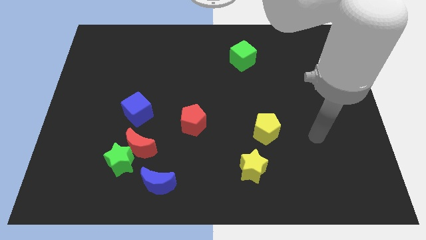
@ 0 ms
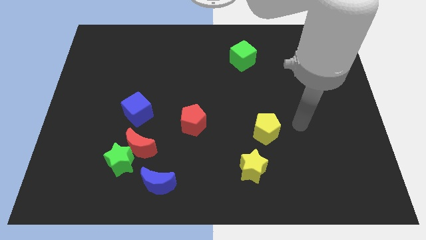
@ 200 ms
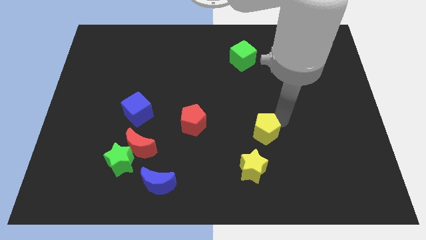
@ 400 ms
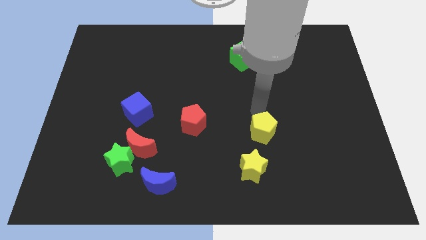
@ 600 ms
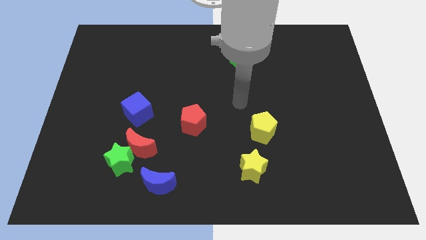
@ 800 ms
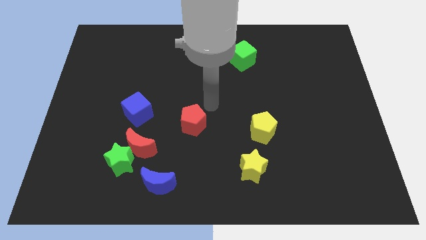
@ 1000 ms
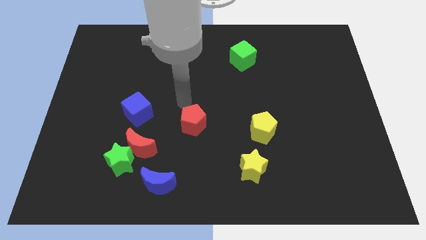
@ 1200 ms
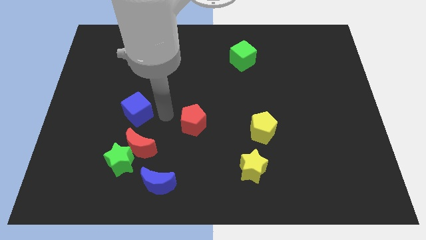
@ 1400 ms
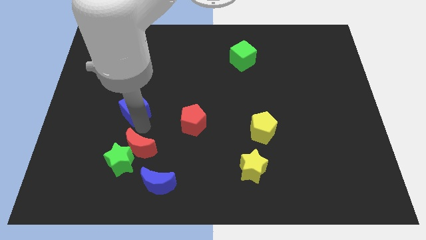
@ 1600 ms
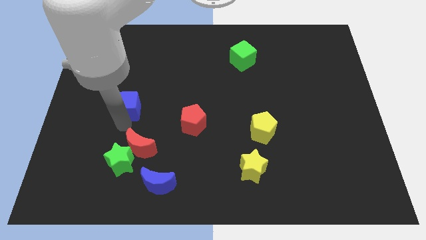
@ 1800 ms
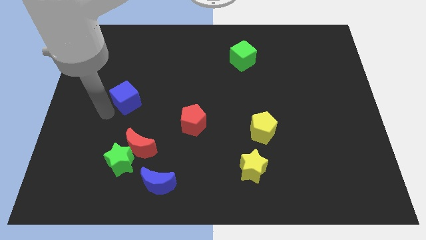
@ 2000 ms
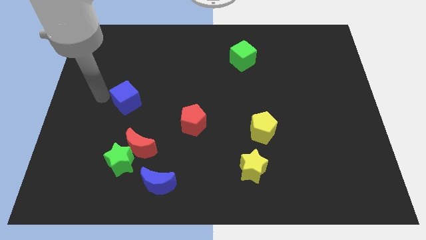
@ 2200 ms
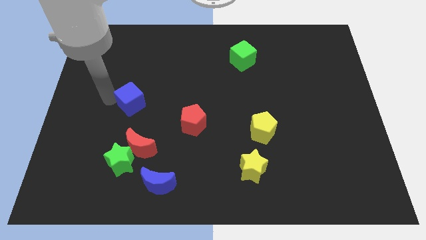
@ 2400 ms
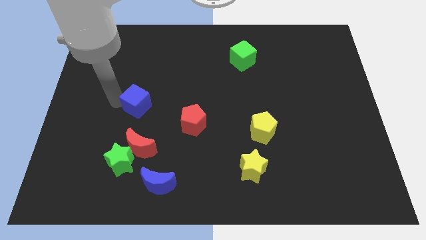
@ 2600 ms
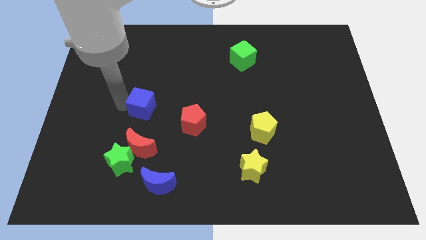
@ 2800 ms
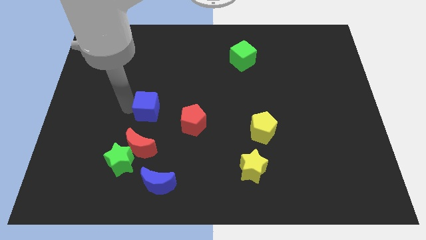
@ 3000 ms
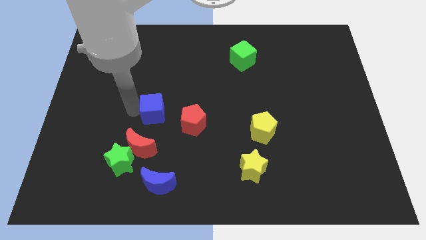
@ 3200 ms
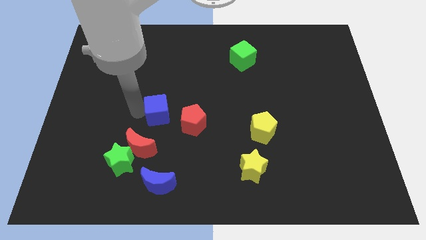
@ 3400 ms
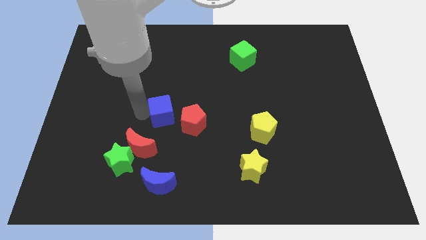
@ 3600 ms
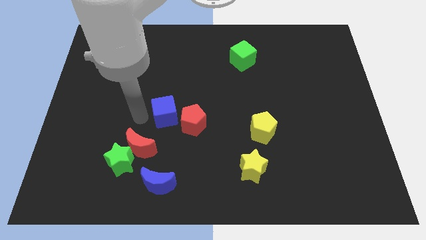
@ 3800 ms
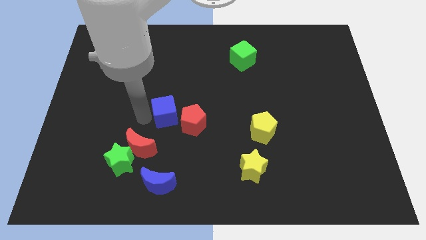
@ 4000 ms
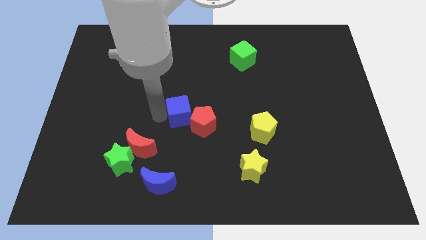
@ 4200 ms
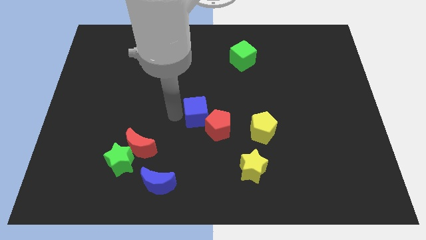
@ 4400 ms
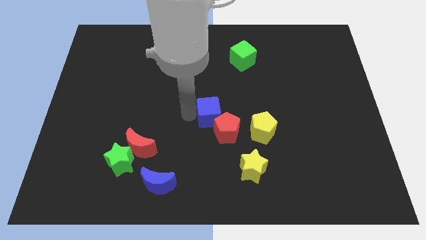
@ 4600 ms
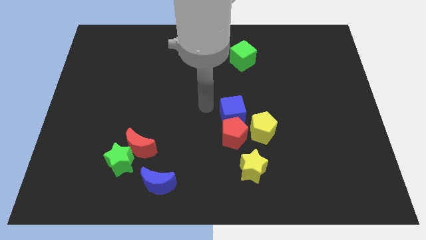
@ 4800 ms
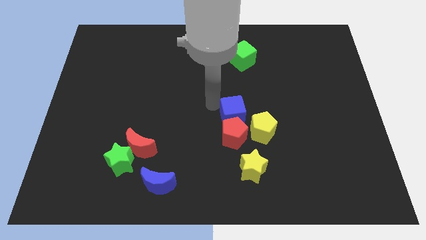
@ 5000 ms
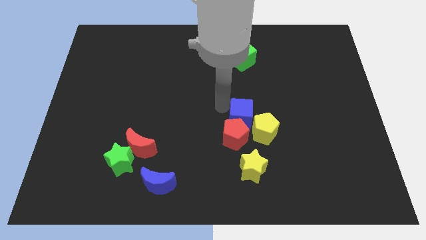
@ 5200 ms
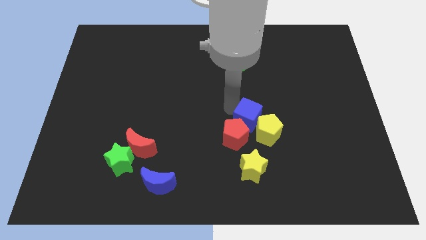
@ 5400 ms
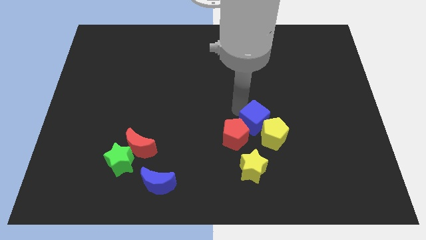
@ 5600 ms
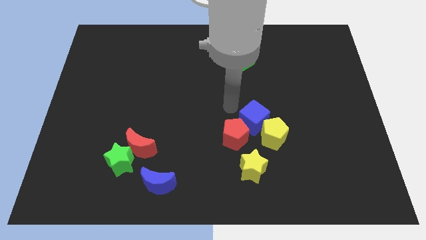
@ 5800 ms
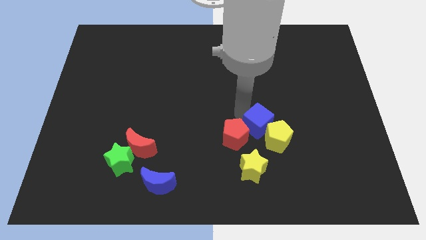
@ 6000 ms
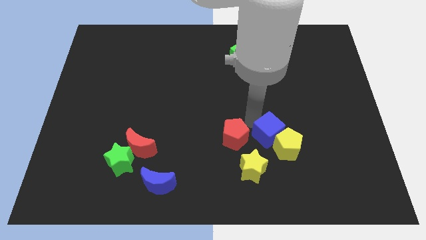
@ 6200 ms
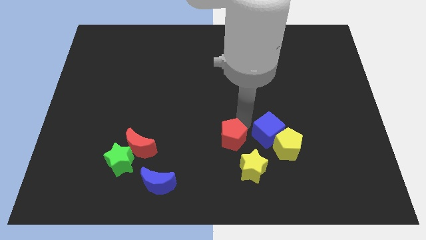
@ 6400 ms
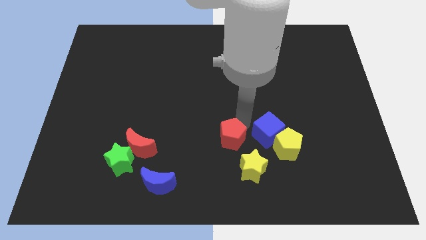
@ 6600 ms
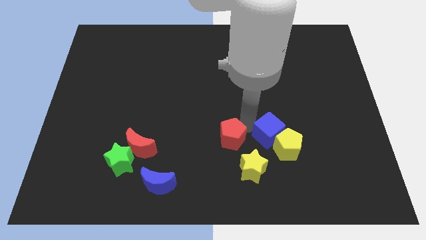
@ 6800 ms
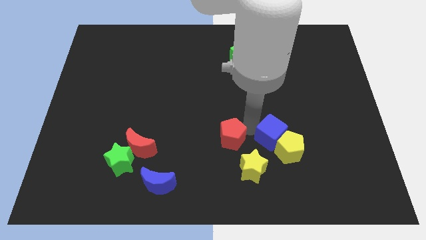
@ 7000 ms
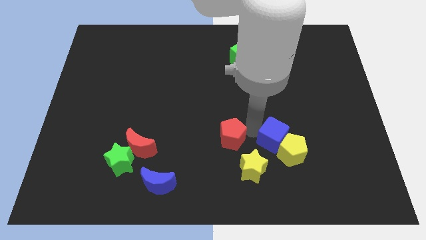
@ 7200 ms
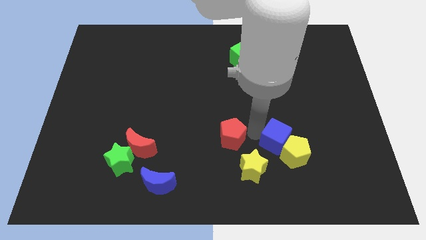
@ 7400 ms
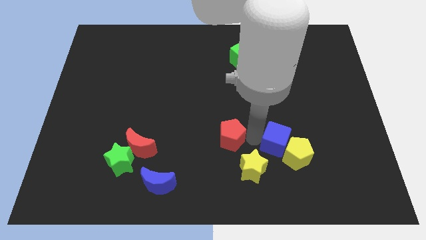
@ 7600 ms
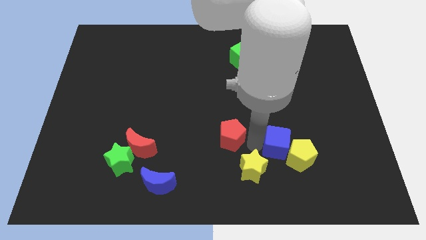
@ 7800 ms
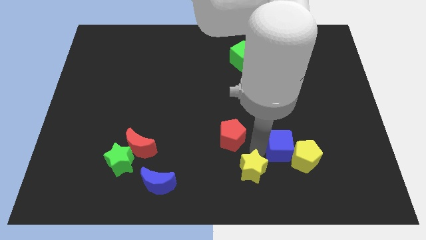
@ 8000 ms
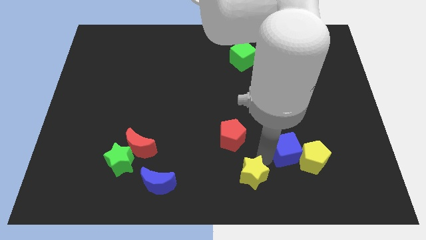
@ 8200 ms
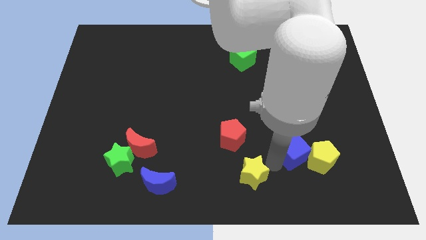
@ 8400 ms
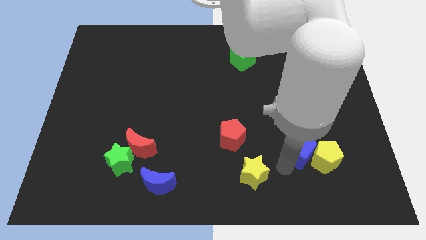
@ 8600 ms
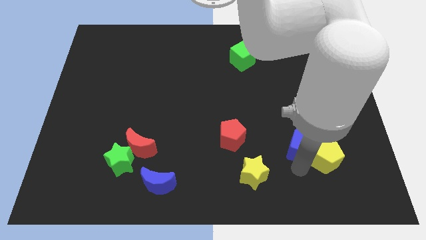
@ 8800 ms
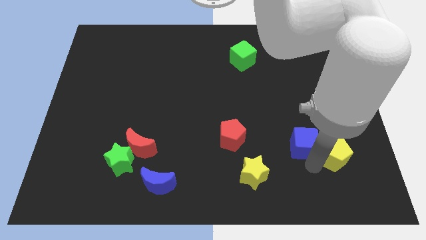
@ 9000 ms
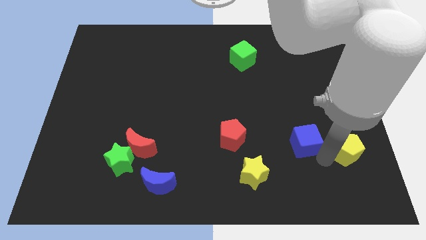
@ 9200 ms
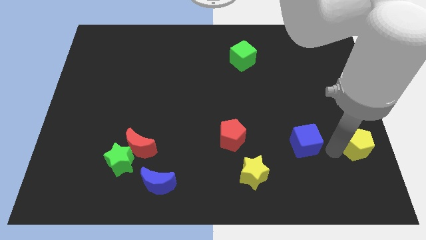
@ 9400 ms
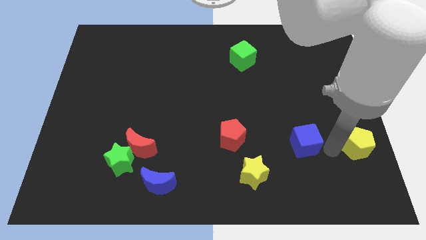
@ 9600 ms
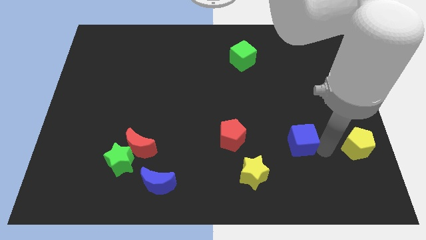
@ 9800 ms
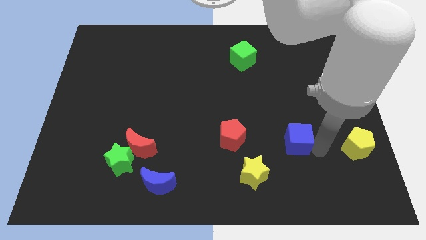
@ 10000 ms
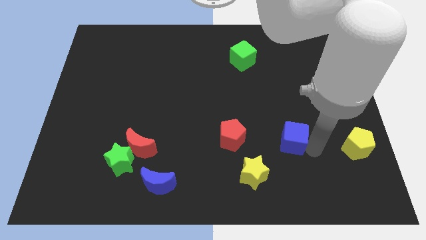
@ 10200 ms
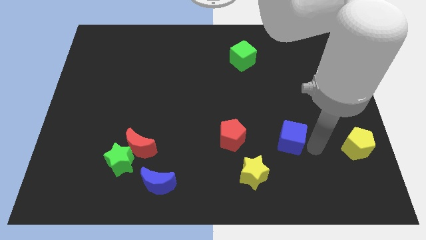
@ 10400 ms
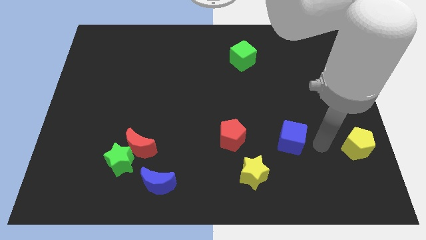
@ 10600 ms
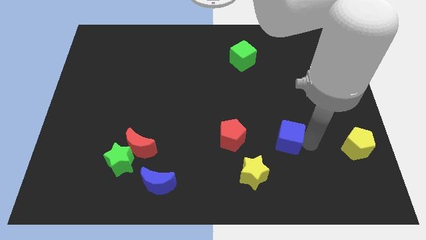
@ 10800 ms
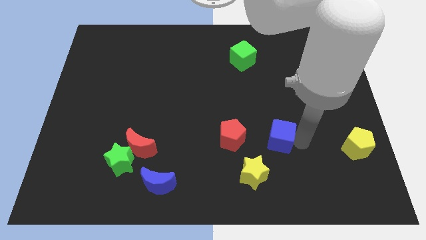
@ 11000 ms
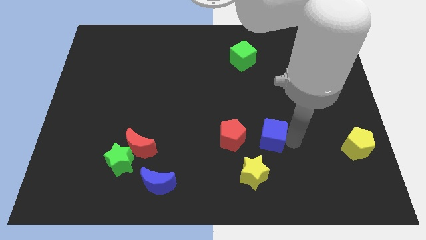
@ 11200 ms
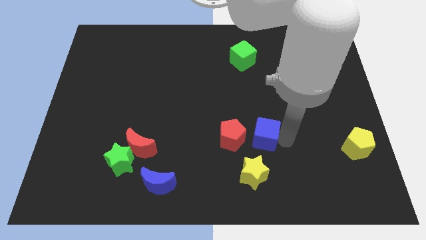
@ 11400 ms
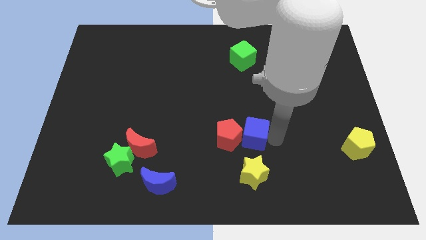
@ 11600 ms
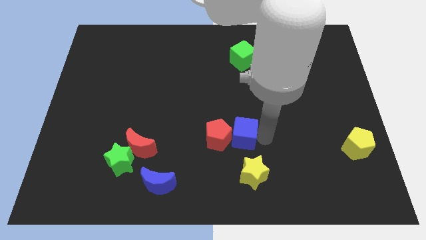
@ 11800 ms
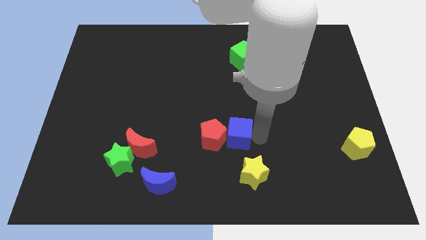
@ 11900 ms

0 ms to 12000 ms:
move the blue cube to the right of the red pentagon
